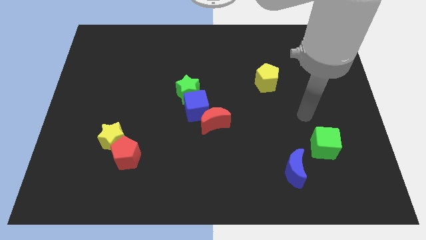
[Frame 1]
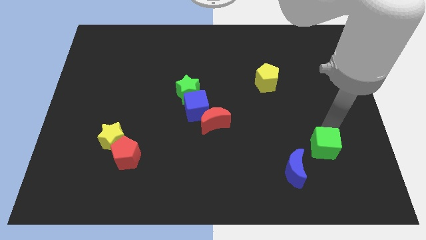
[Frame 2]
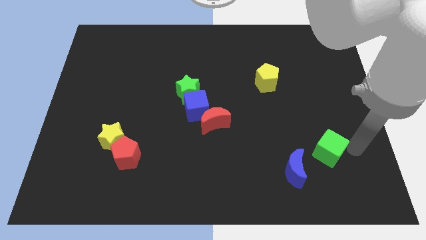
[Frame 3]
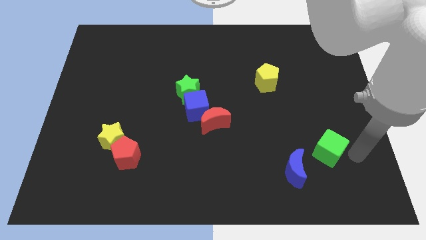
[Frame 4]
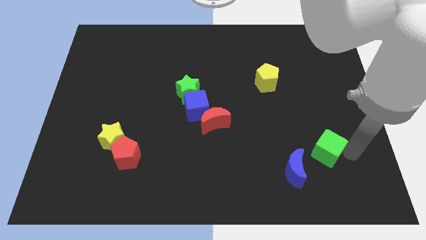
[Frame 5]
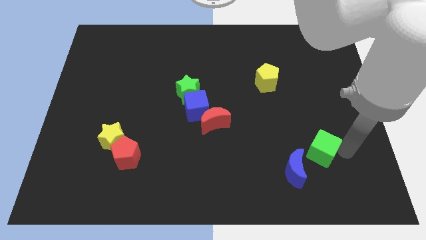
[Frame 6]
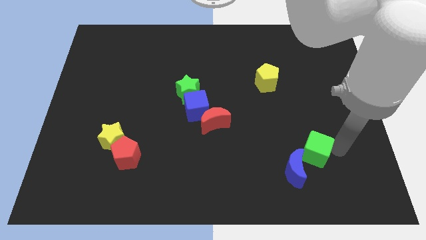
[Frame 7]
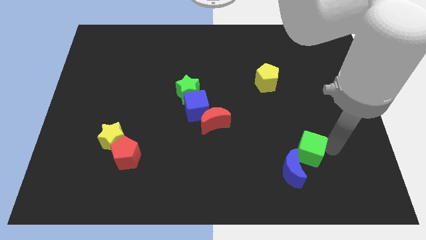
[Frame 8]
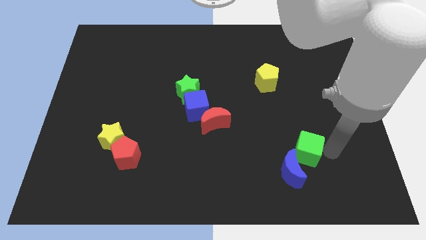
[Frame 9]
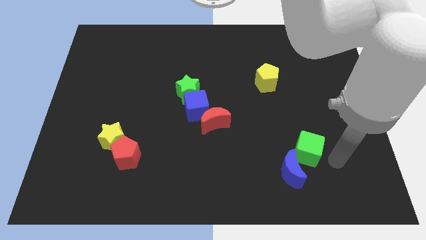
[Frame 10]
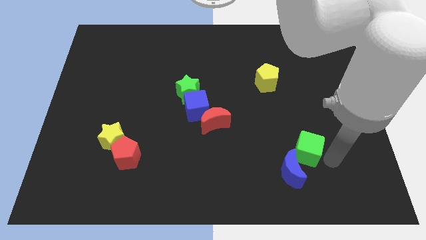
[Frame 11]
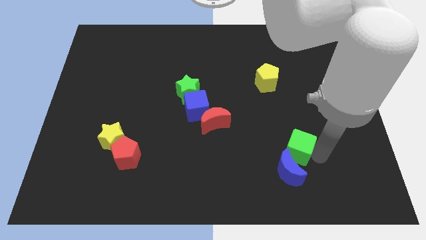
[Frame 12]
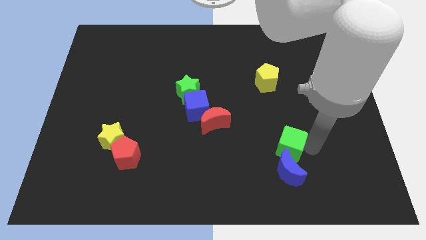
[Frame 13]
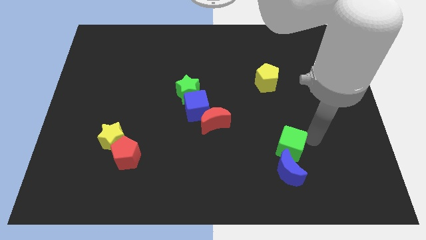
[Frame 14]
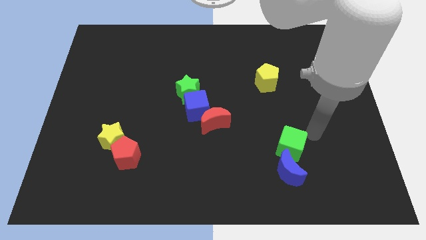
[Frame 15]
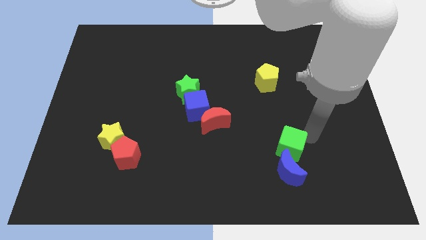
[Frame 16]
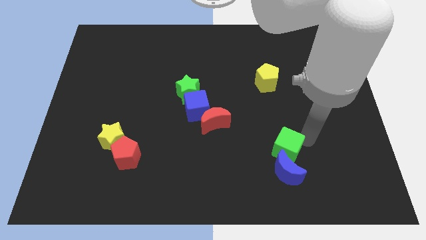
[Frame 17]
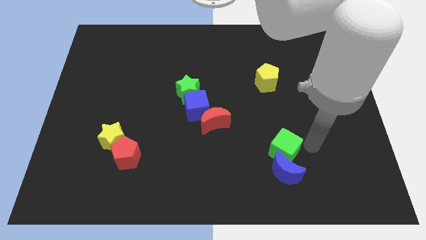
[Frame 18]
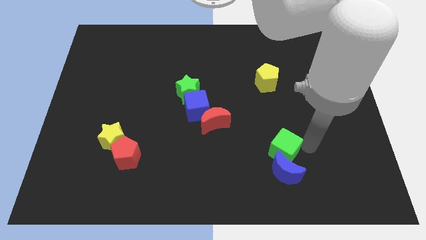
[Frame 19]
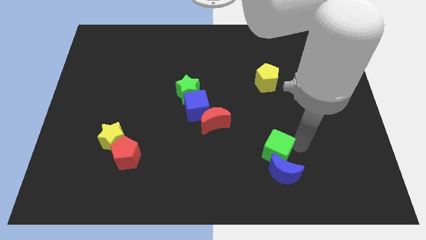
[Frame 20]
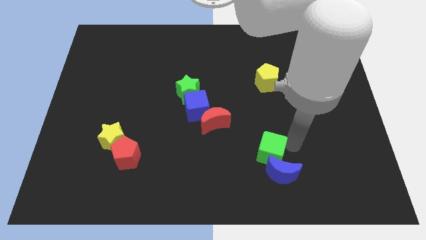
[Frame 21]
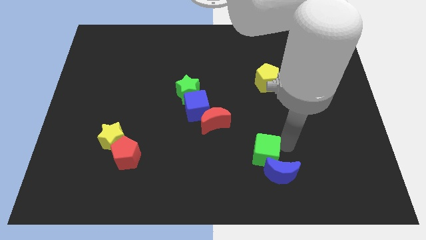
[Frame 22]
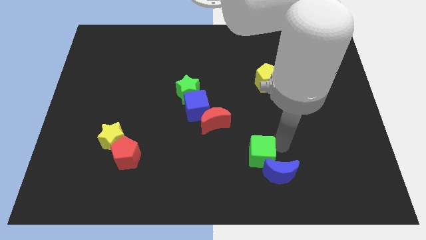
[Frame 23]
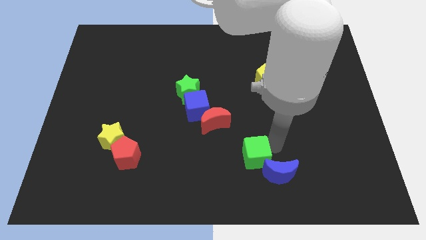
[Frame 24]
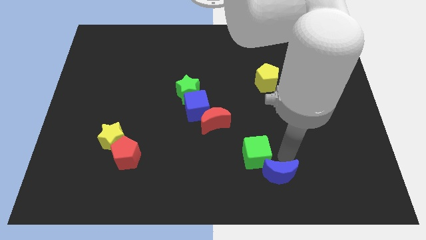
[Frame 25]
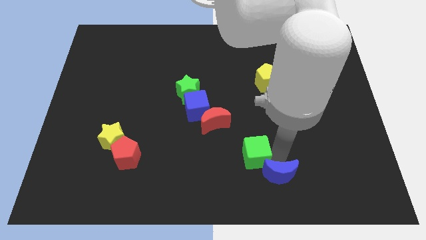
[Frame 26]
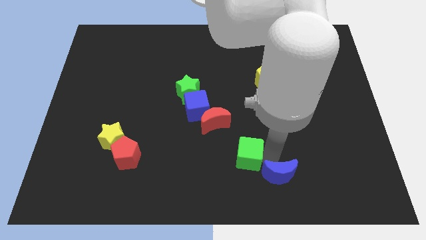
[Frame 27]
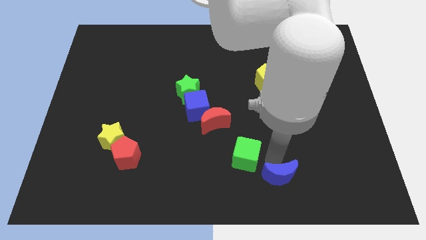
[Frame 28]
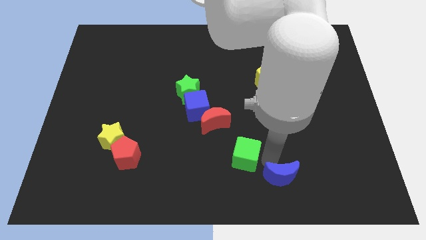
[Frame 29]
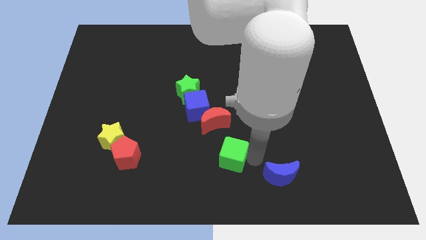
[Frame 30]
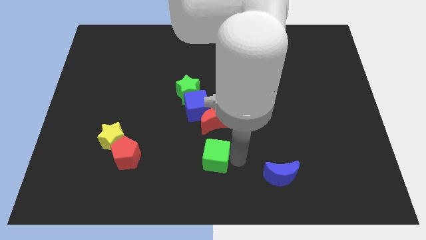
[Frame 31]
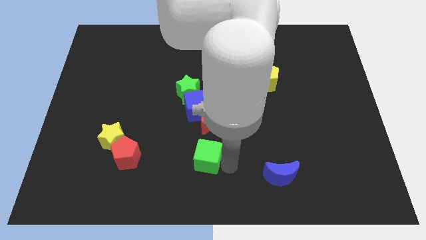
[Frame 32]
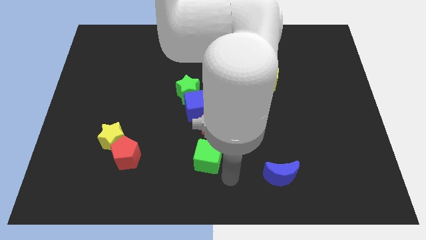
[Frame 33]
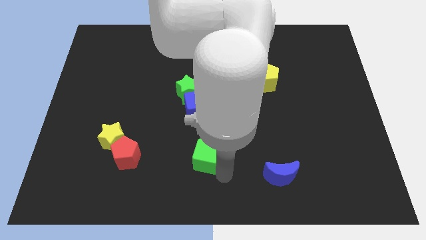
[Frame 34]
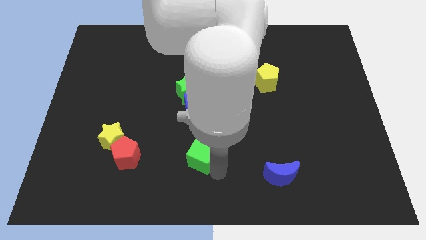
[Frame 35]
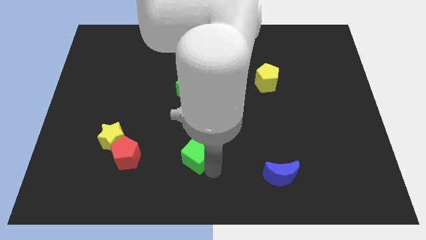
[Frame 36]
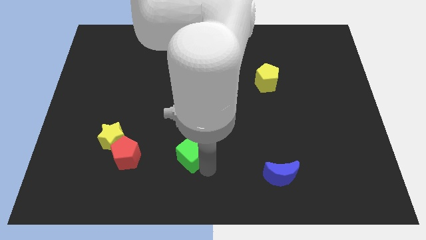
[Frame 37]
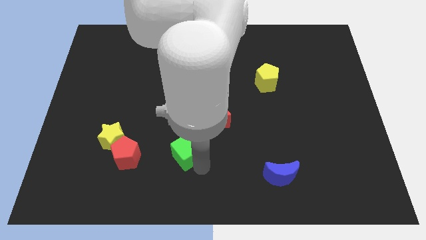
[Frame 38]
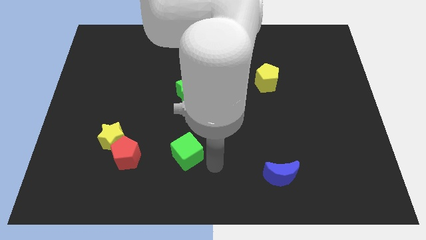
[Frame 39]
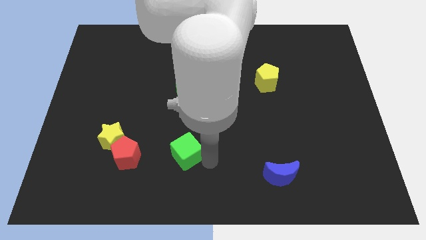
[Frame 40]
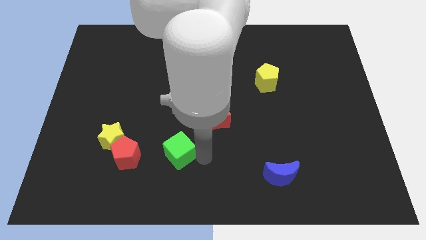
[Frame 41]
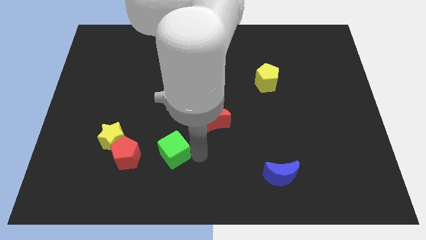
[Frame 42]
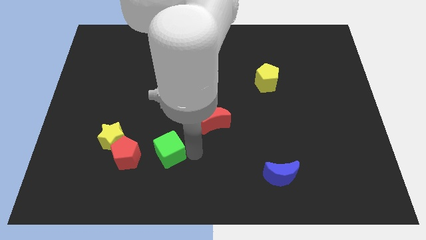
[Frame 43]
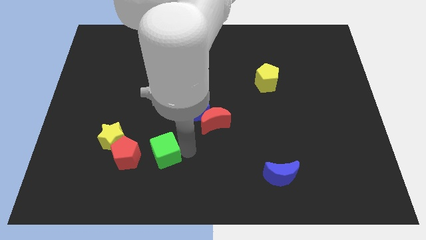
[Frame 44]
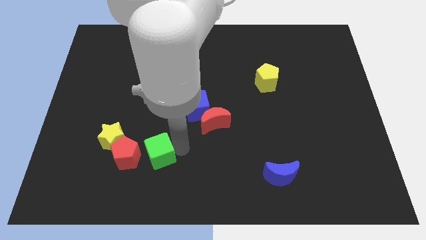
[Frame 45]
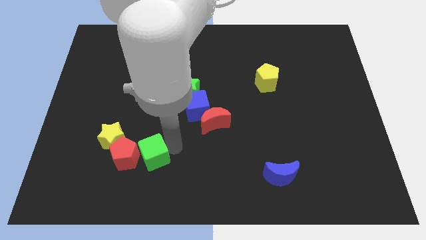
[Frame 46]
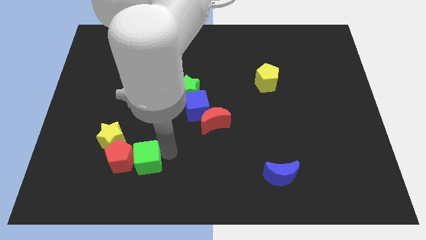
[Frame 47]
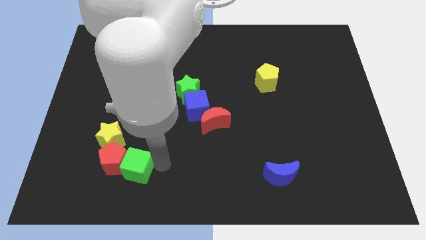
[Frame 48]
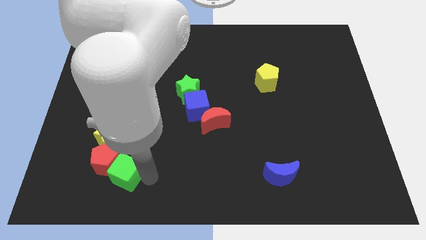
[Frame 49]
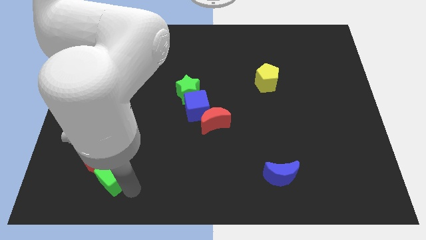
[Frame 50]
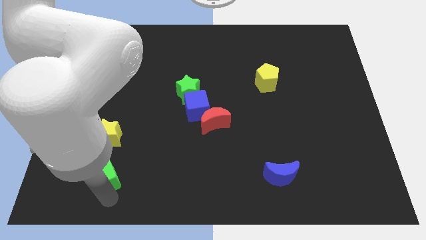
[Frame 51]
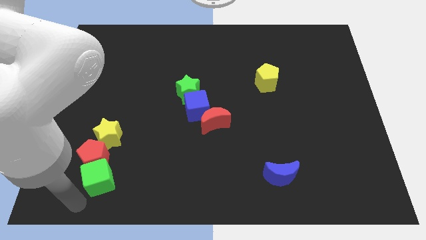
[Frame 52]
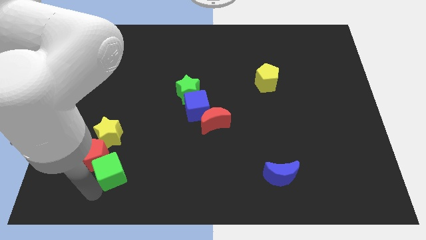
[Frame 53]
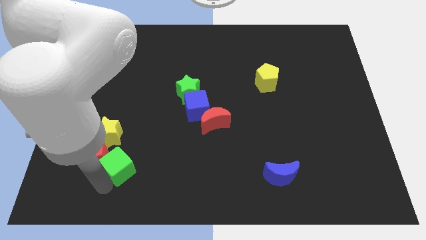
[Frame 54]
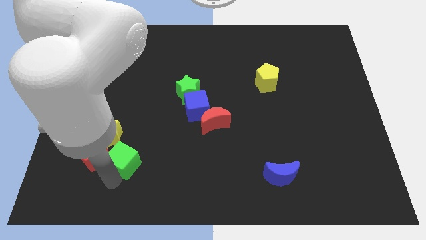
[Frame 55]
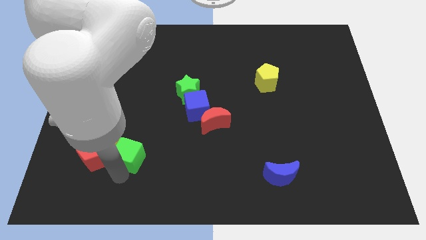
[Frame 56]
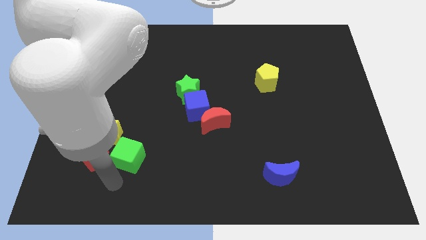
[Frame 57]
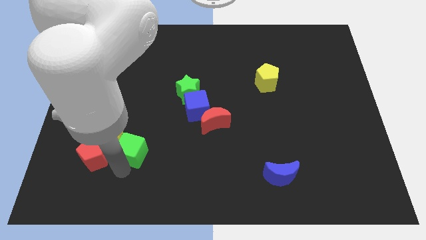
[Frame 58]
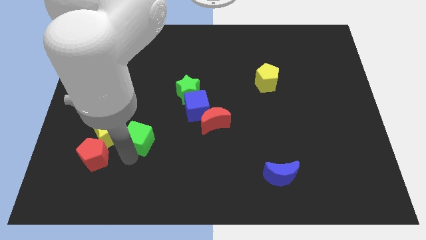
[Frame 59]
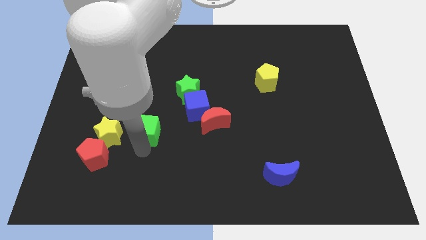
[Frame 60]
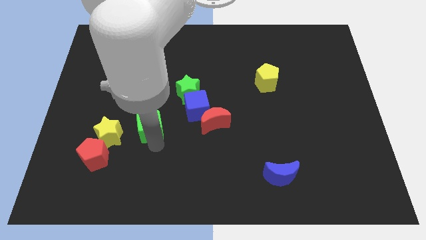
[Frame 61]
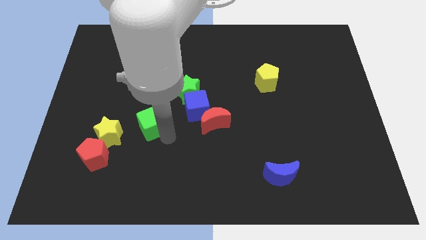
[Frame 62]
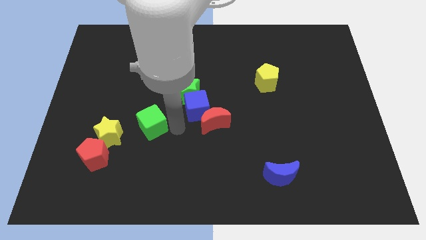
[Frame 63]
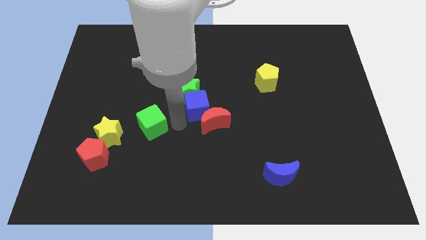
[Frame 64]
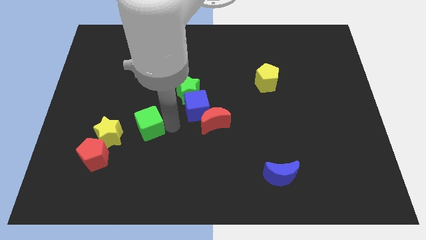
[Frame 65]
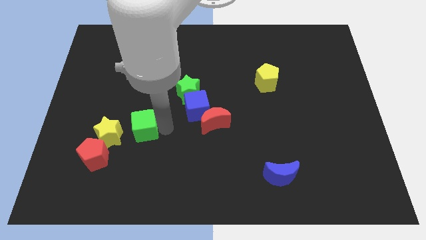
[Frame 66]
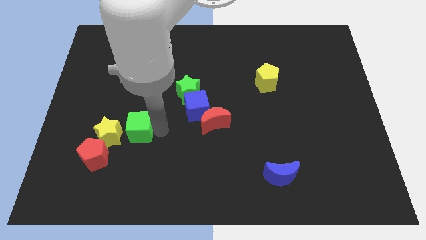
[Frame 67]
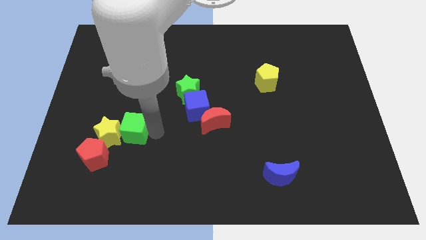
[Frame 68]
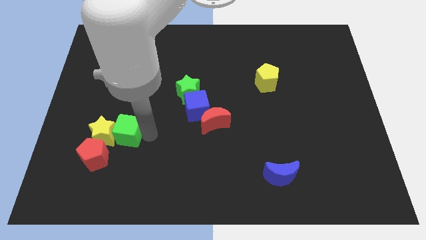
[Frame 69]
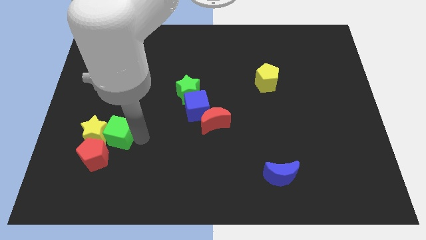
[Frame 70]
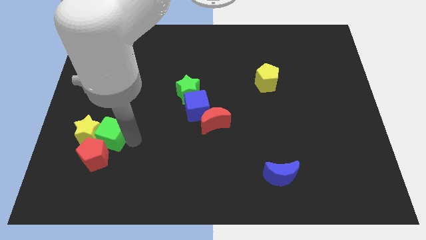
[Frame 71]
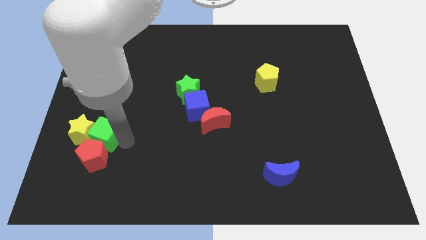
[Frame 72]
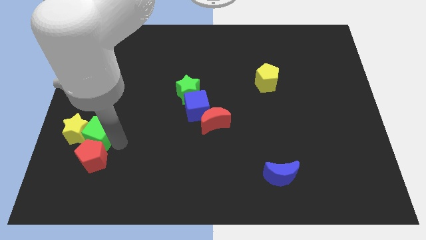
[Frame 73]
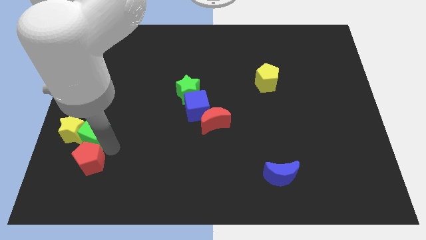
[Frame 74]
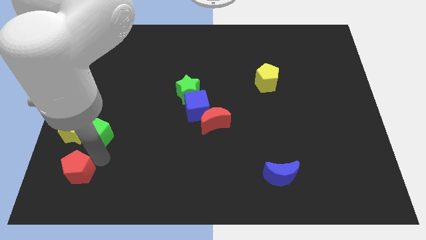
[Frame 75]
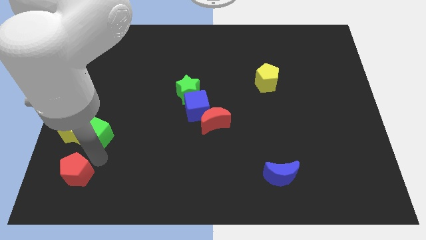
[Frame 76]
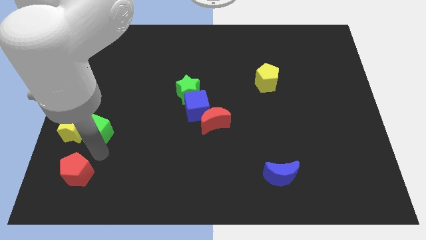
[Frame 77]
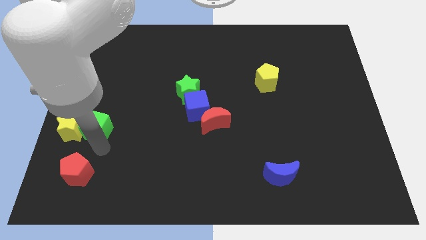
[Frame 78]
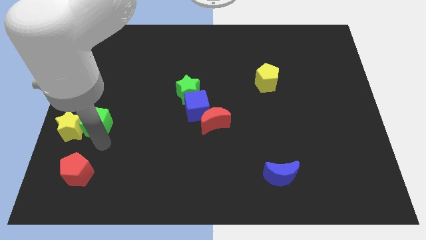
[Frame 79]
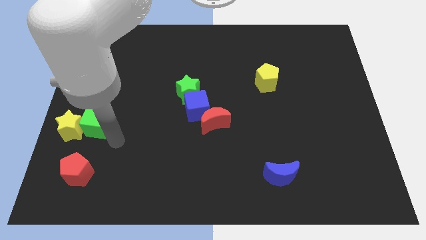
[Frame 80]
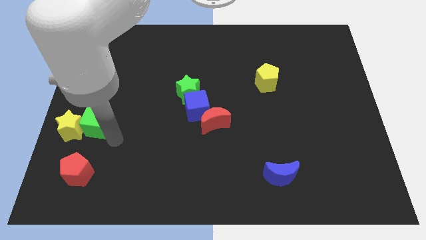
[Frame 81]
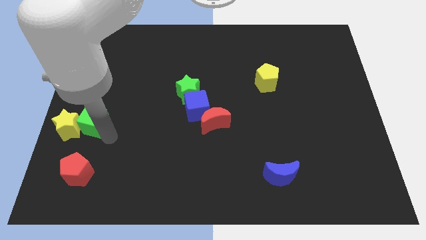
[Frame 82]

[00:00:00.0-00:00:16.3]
put the green cube to the left side of the board
